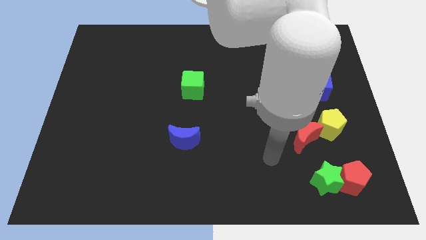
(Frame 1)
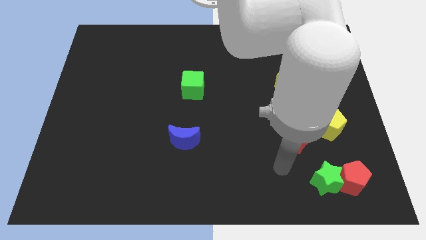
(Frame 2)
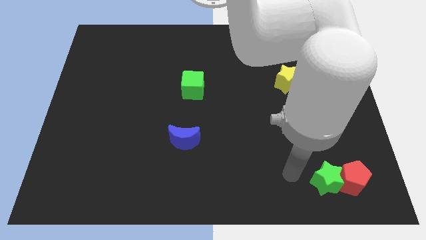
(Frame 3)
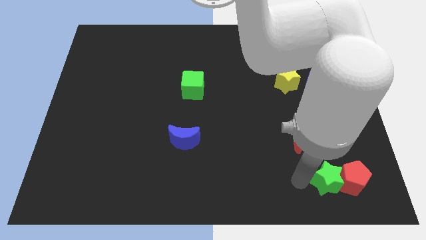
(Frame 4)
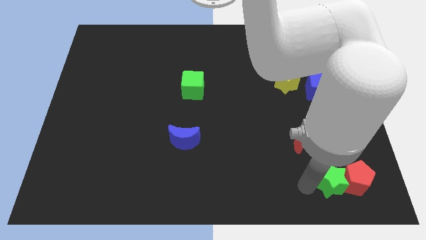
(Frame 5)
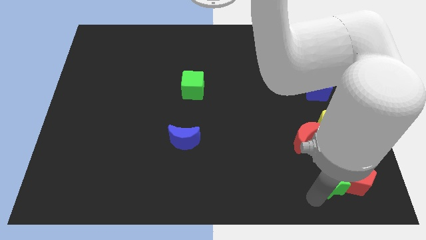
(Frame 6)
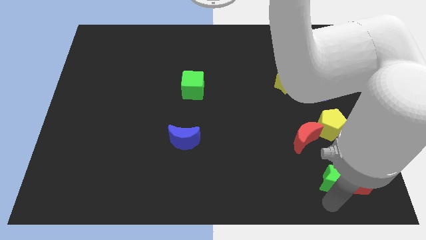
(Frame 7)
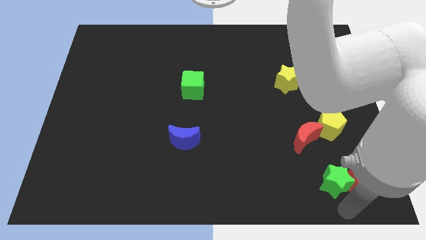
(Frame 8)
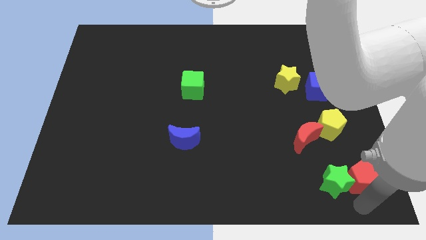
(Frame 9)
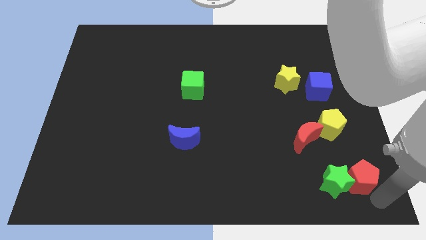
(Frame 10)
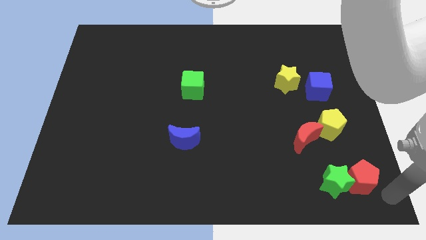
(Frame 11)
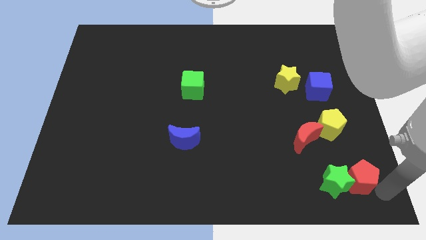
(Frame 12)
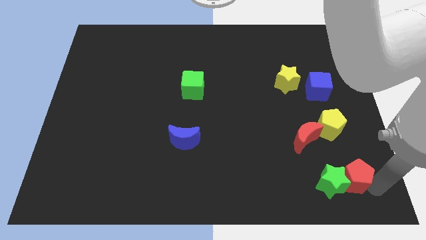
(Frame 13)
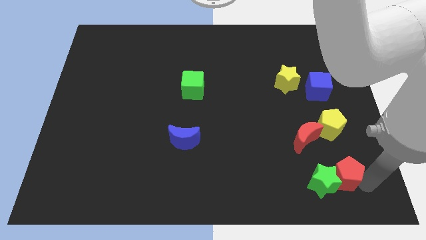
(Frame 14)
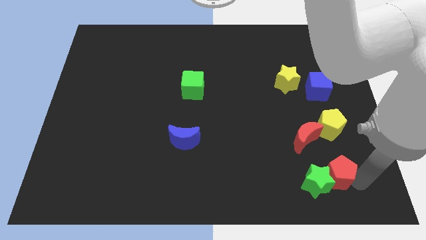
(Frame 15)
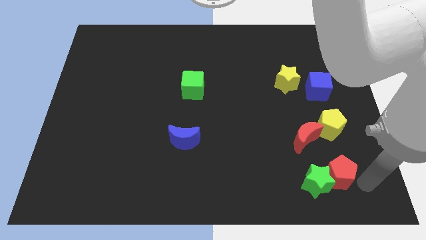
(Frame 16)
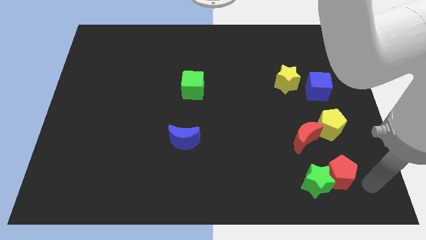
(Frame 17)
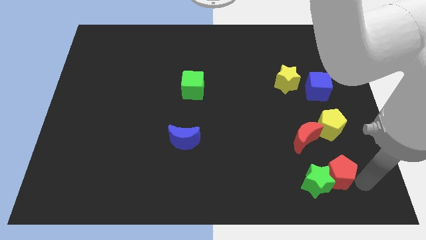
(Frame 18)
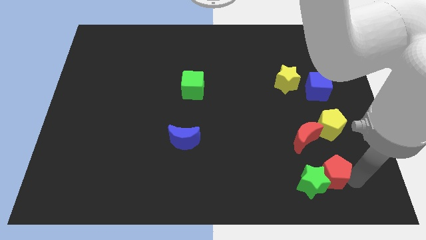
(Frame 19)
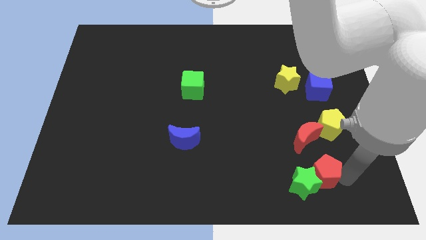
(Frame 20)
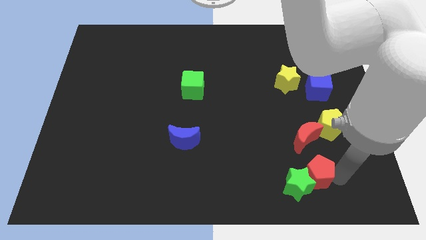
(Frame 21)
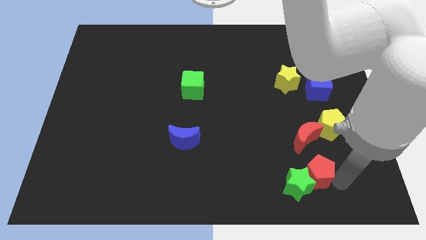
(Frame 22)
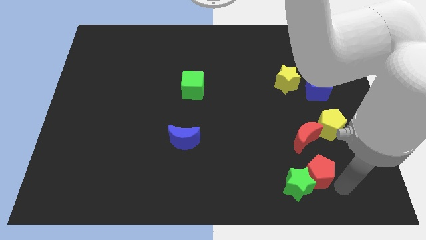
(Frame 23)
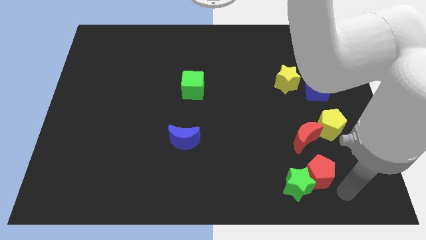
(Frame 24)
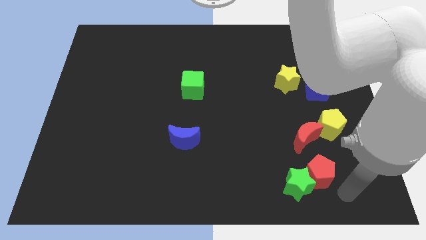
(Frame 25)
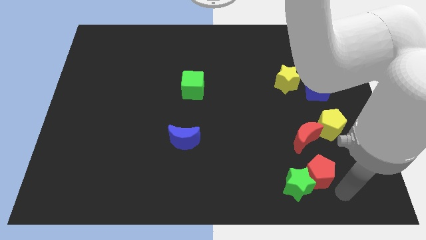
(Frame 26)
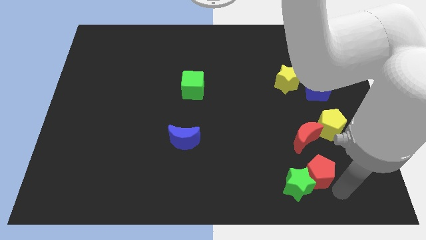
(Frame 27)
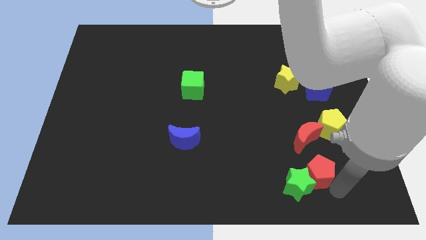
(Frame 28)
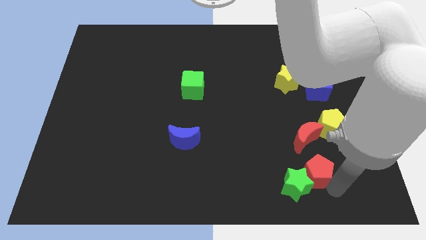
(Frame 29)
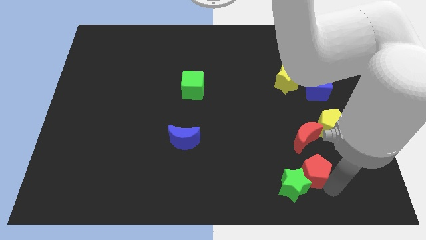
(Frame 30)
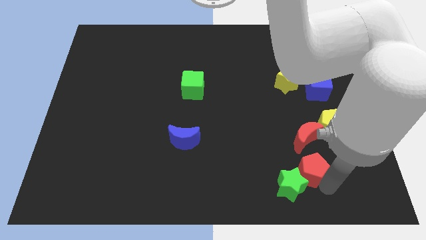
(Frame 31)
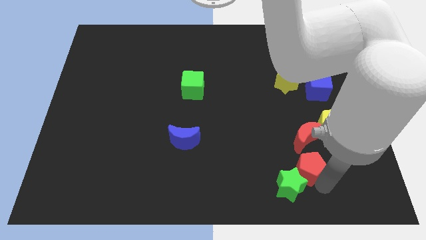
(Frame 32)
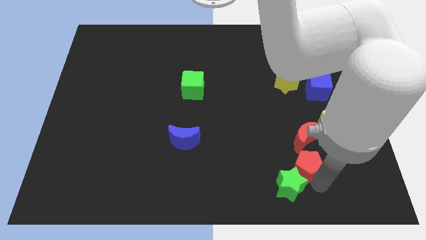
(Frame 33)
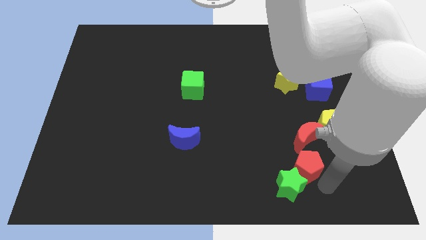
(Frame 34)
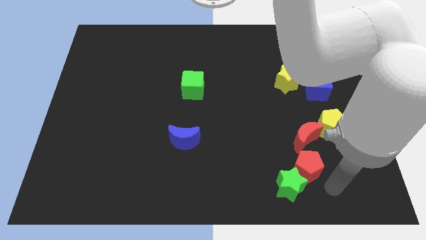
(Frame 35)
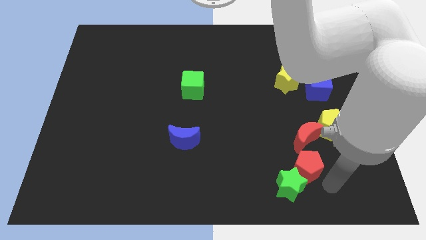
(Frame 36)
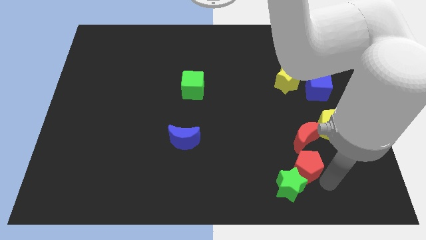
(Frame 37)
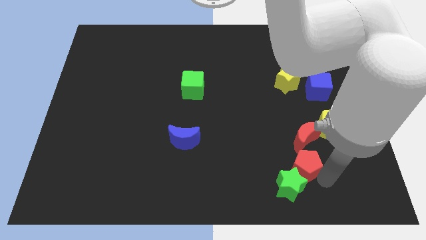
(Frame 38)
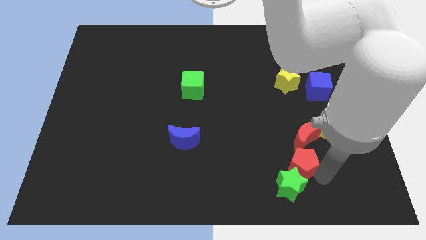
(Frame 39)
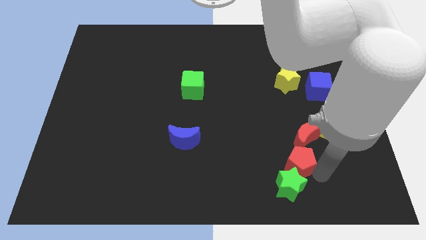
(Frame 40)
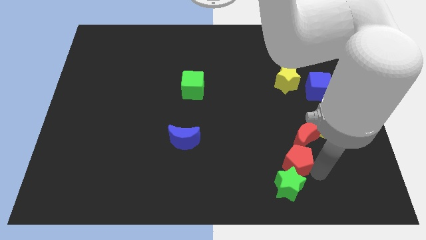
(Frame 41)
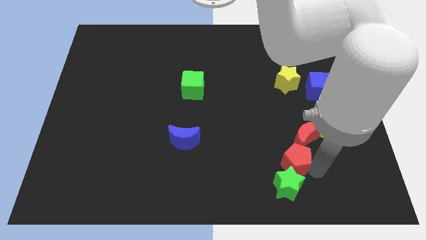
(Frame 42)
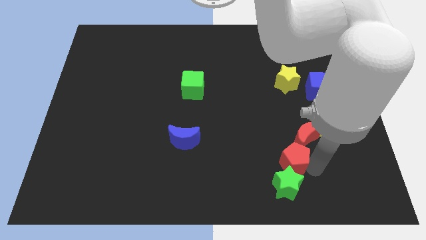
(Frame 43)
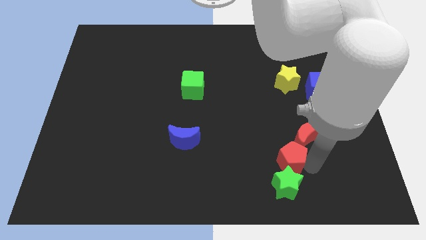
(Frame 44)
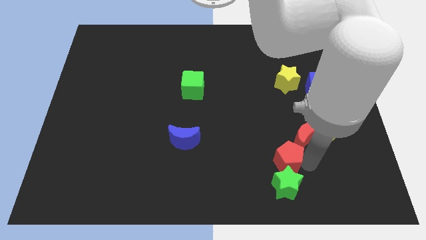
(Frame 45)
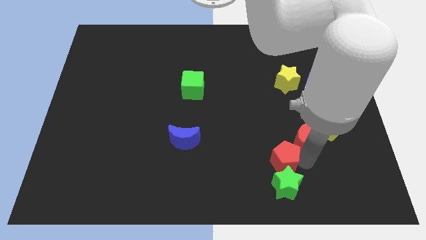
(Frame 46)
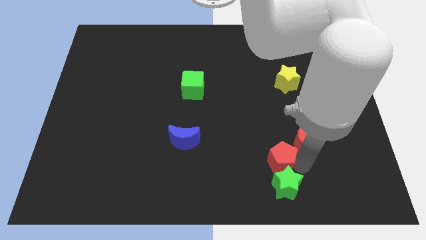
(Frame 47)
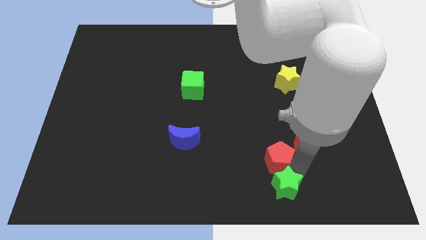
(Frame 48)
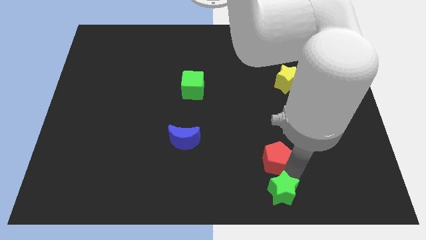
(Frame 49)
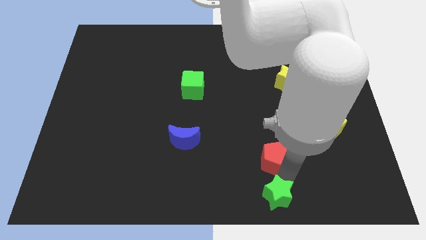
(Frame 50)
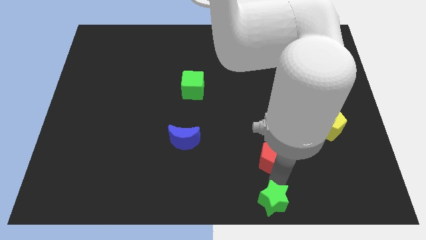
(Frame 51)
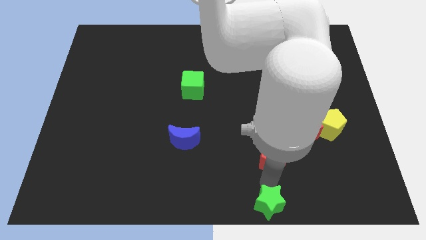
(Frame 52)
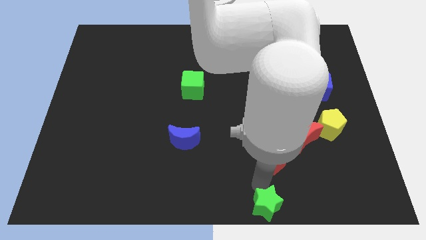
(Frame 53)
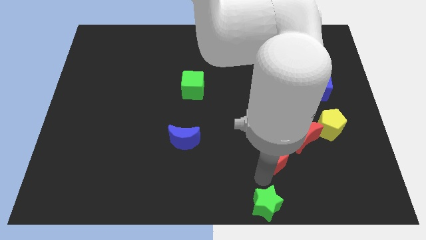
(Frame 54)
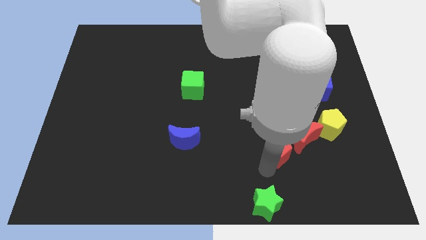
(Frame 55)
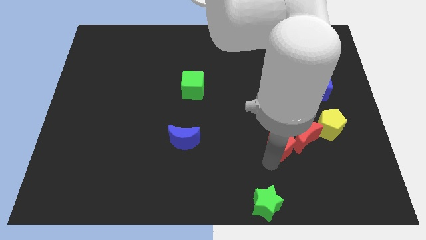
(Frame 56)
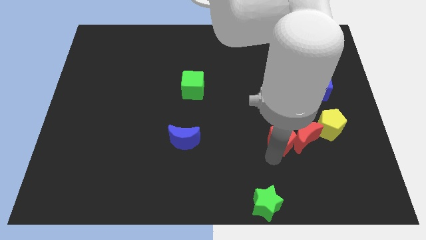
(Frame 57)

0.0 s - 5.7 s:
put the red pentagon to the top left side of the red moon

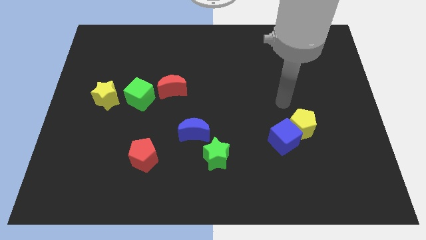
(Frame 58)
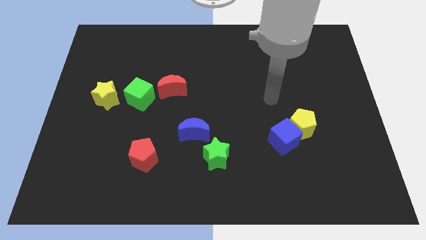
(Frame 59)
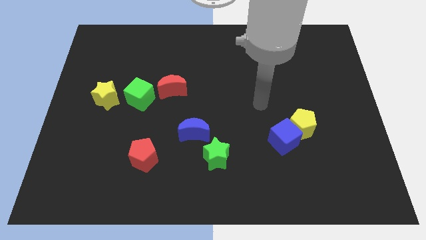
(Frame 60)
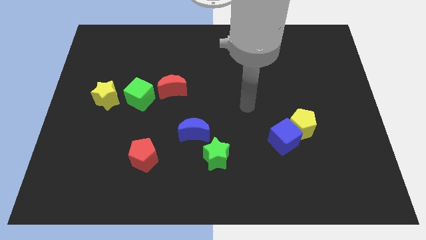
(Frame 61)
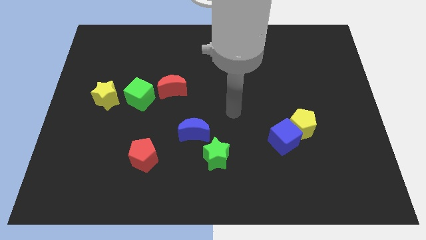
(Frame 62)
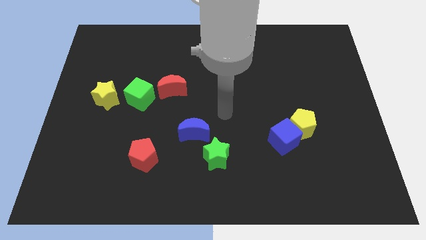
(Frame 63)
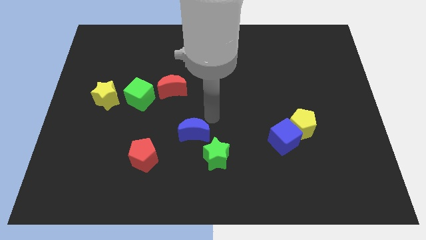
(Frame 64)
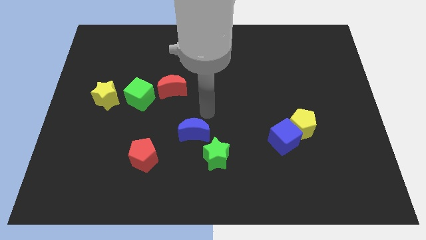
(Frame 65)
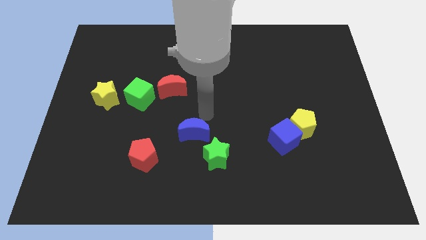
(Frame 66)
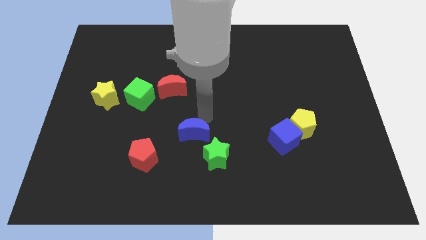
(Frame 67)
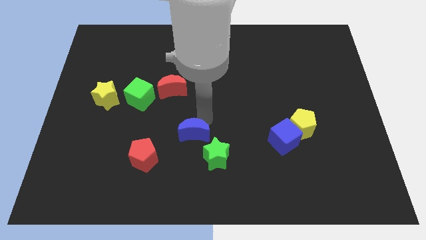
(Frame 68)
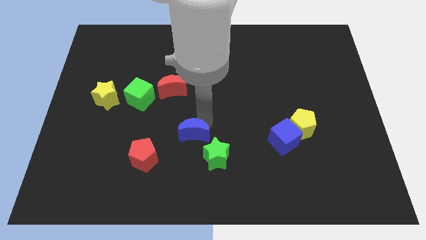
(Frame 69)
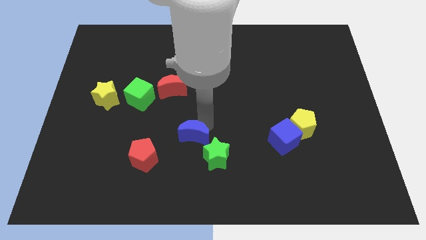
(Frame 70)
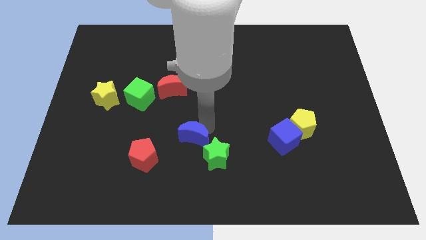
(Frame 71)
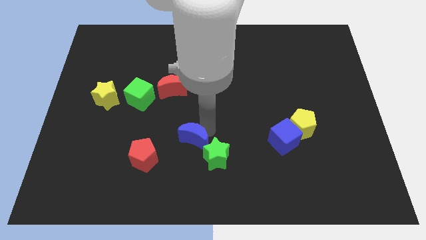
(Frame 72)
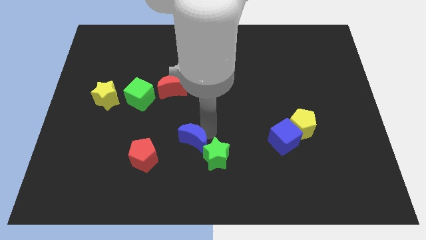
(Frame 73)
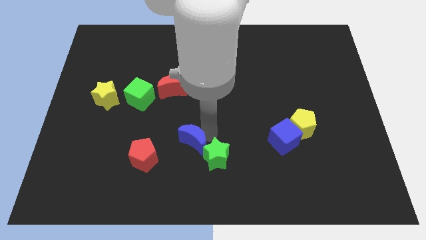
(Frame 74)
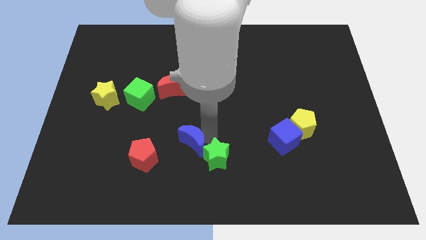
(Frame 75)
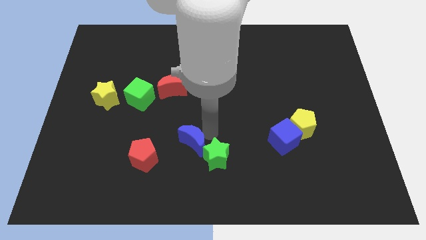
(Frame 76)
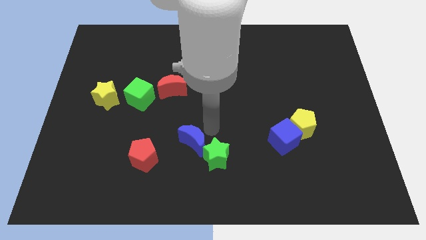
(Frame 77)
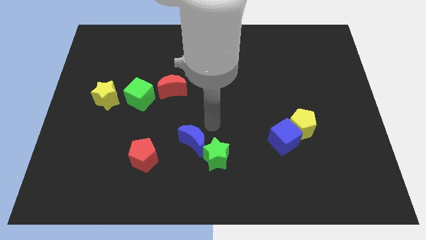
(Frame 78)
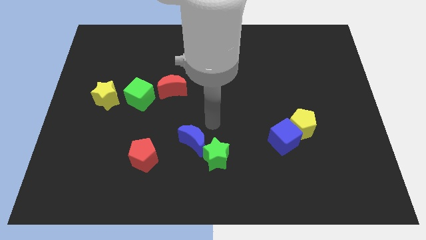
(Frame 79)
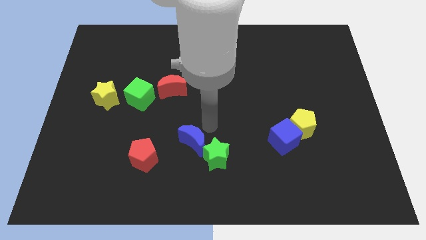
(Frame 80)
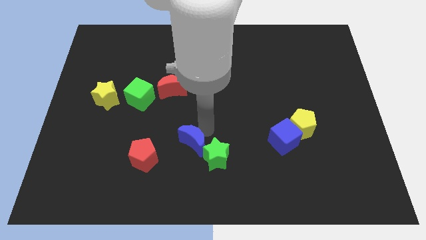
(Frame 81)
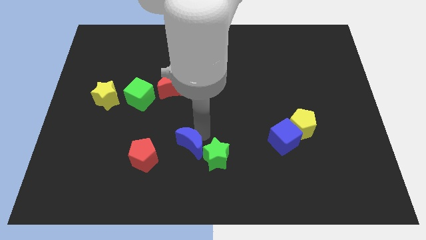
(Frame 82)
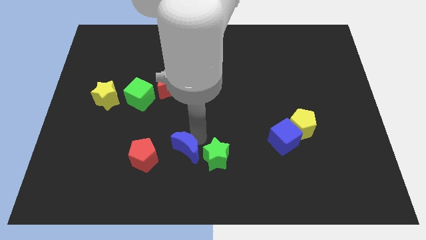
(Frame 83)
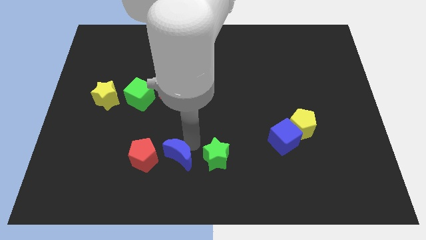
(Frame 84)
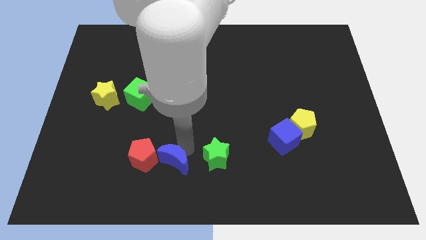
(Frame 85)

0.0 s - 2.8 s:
push the blue moon to the bottom right side of the red pentagon
